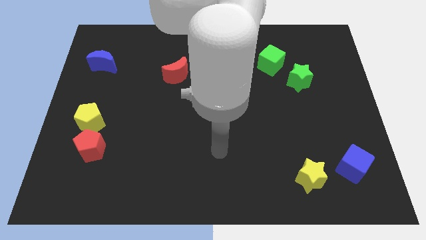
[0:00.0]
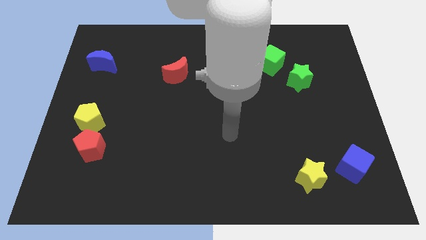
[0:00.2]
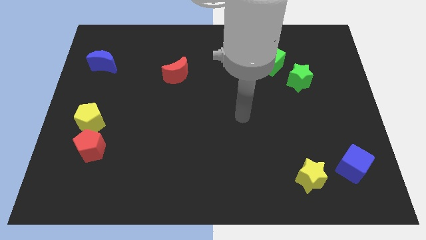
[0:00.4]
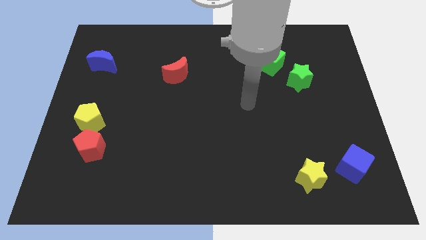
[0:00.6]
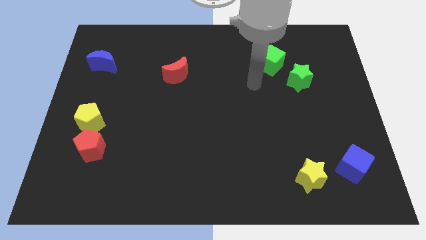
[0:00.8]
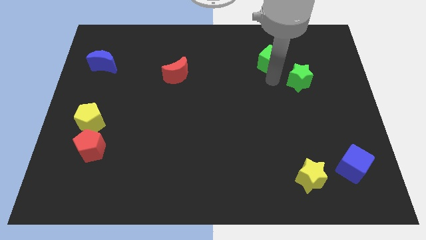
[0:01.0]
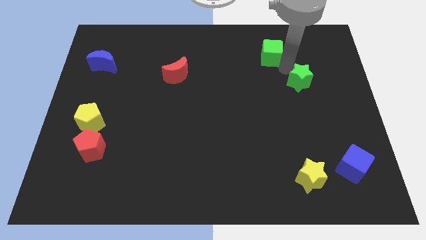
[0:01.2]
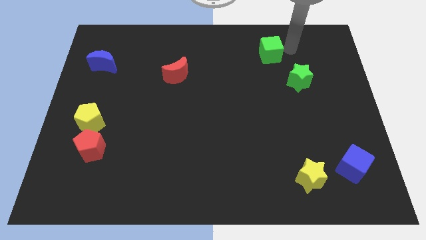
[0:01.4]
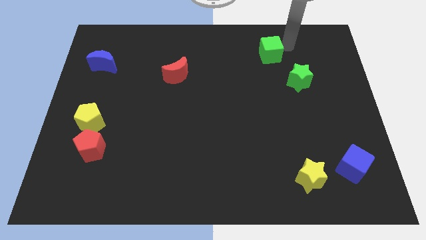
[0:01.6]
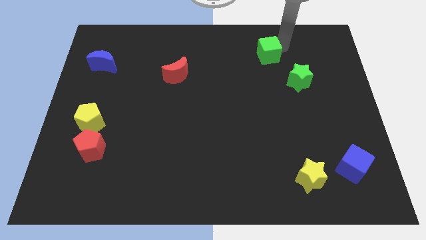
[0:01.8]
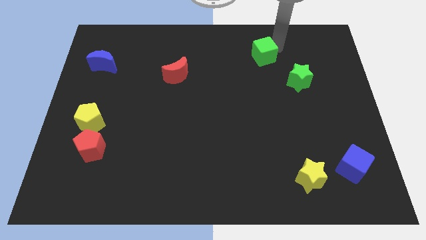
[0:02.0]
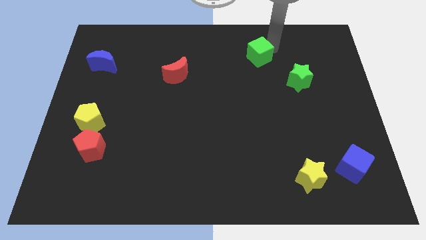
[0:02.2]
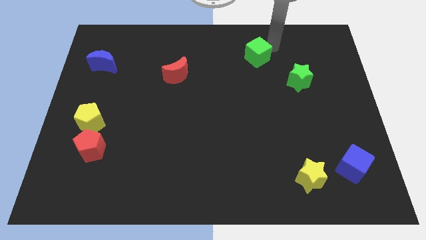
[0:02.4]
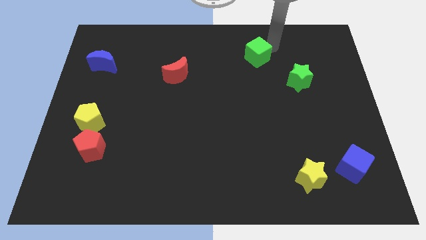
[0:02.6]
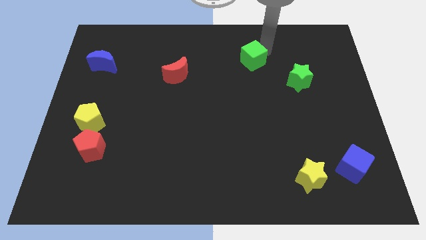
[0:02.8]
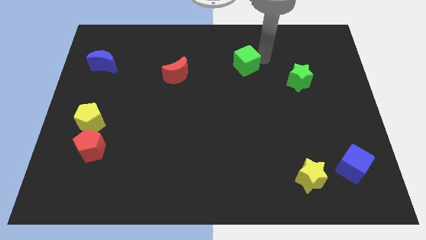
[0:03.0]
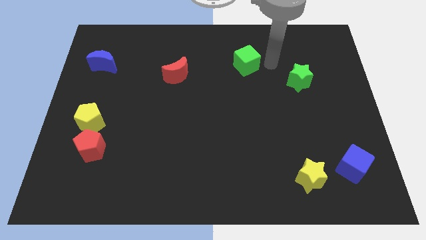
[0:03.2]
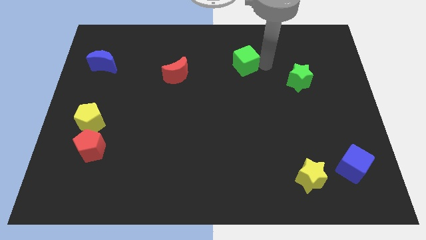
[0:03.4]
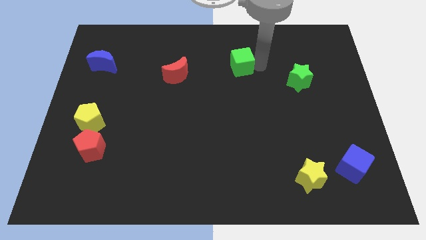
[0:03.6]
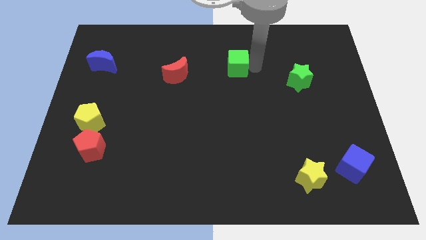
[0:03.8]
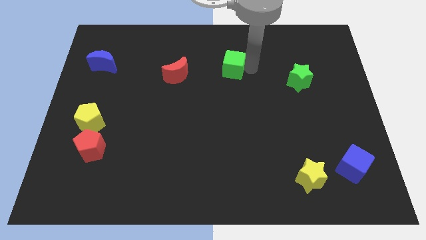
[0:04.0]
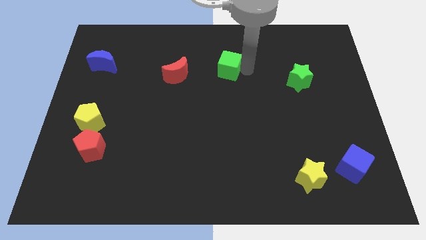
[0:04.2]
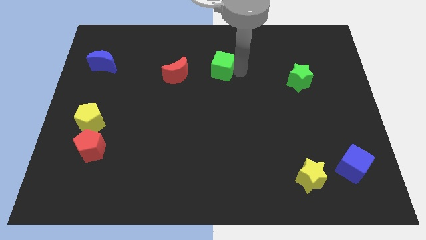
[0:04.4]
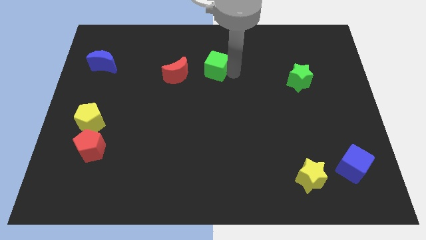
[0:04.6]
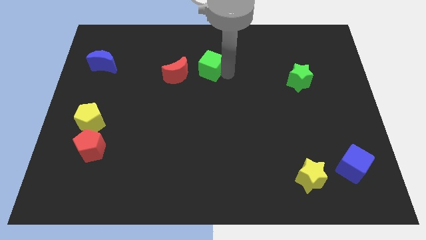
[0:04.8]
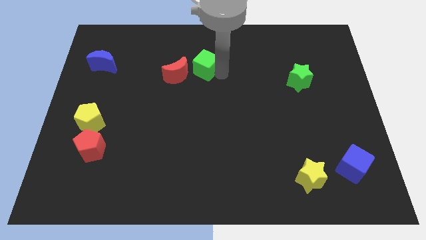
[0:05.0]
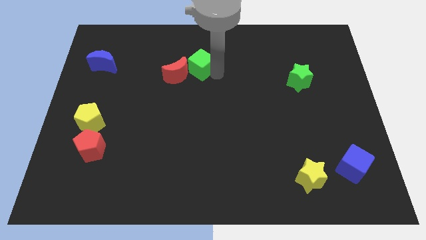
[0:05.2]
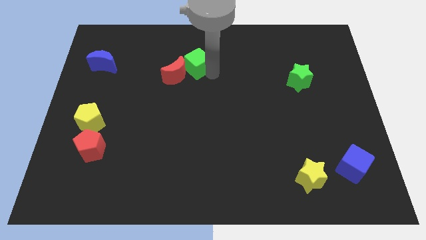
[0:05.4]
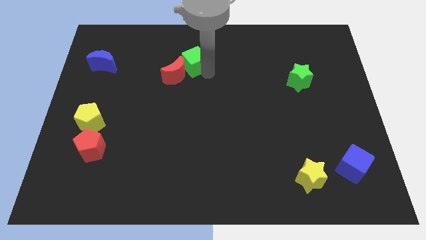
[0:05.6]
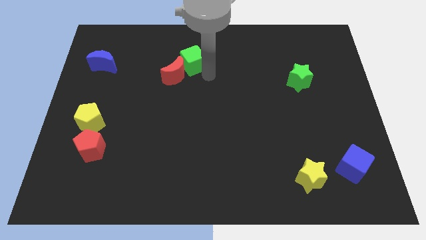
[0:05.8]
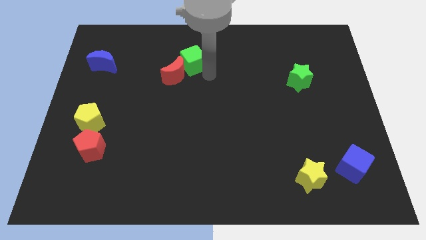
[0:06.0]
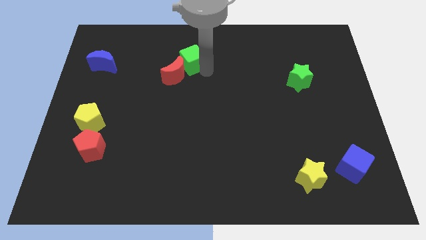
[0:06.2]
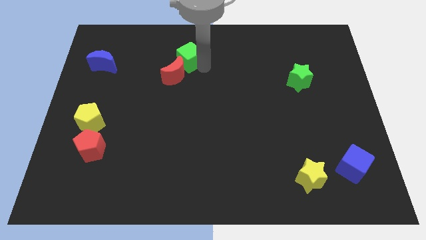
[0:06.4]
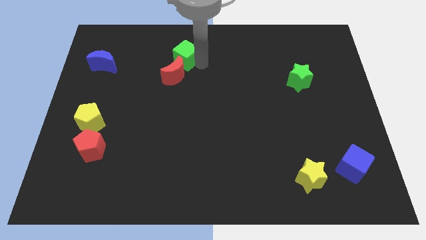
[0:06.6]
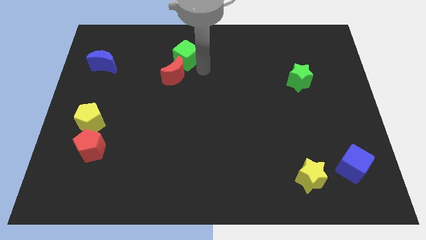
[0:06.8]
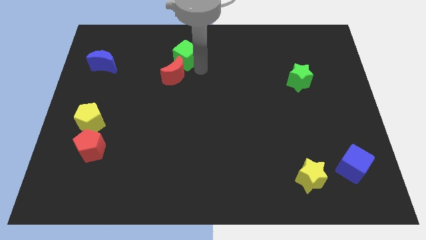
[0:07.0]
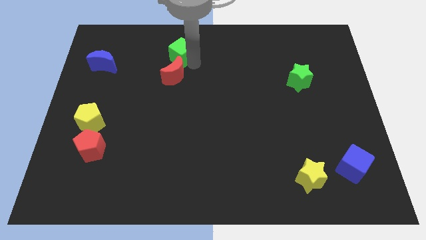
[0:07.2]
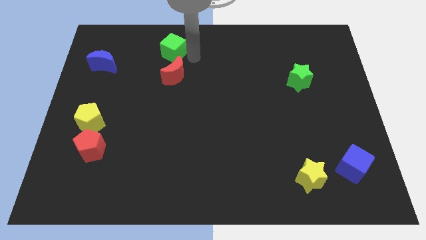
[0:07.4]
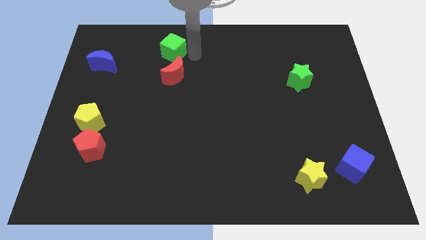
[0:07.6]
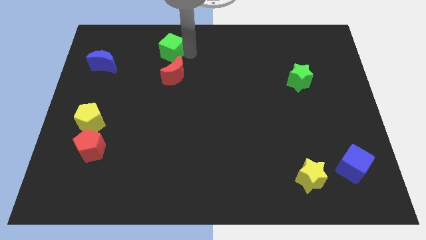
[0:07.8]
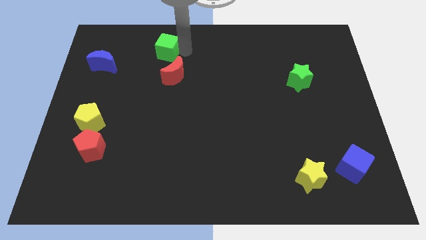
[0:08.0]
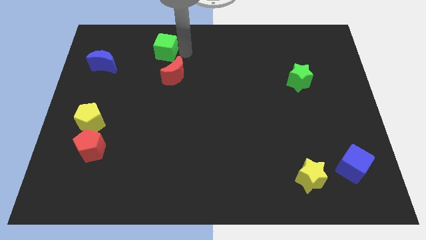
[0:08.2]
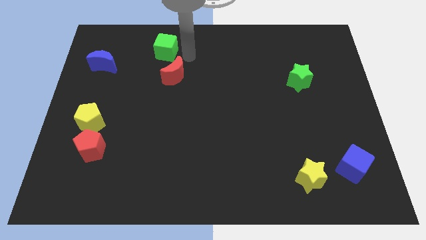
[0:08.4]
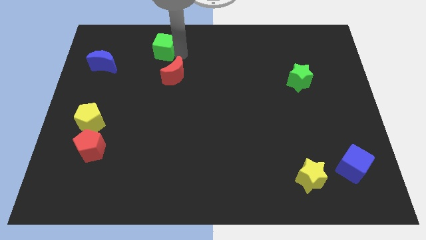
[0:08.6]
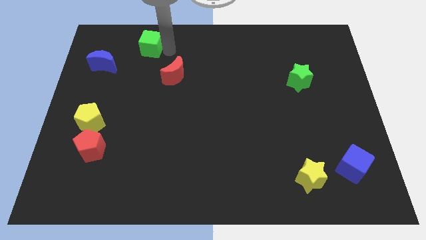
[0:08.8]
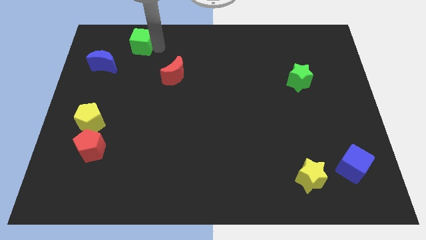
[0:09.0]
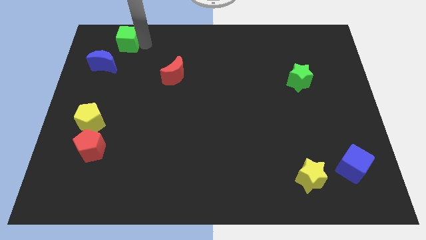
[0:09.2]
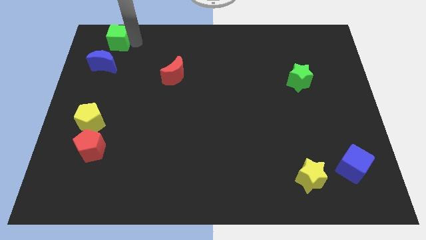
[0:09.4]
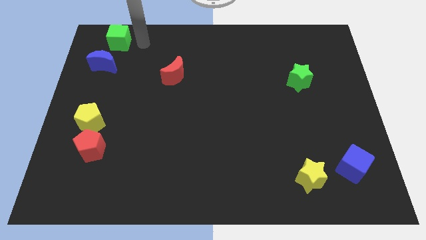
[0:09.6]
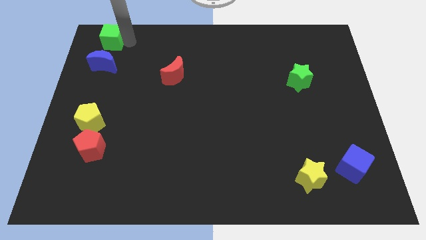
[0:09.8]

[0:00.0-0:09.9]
put the green cube to the top left corner

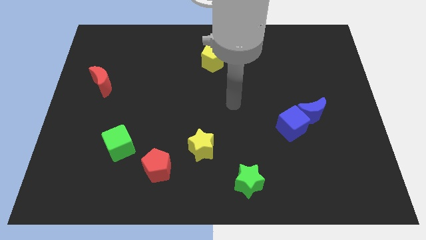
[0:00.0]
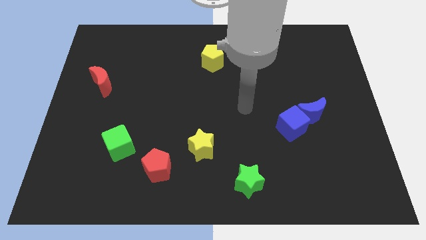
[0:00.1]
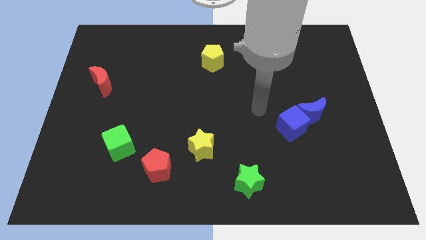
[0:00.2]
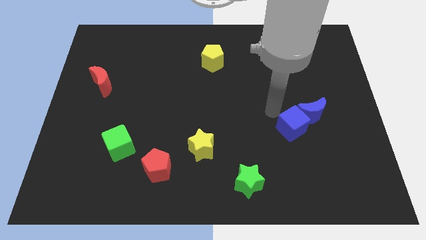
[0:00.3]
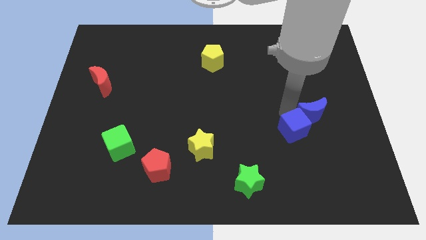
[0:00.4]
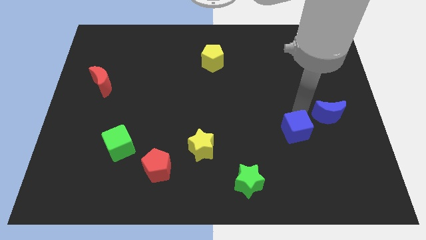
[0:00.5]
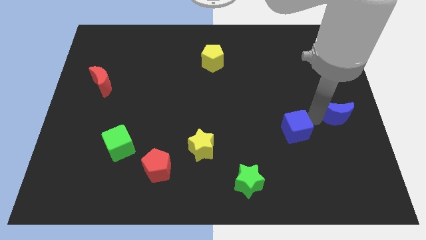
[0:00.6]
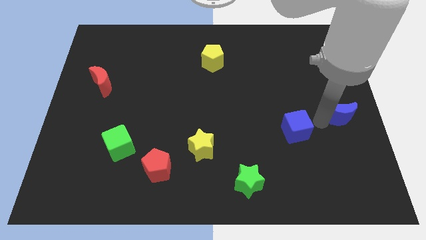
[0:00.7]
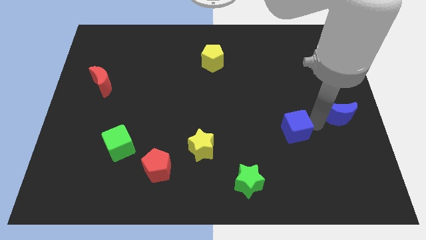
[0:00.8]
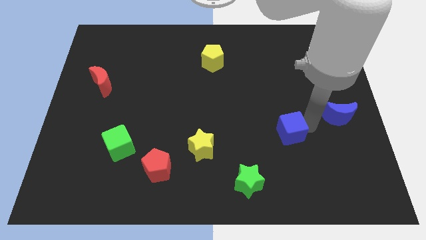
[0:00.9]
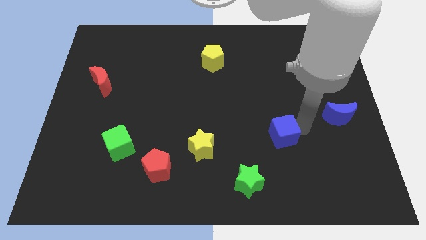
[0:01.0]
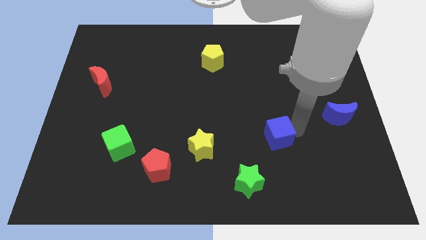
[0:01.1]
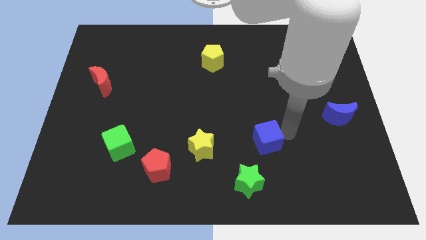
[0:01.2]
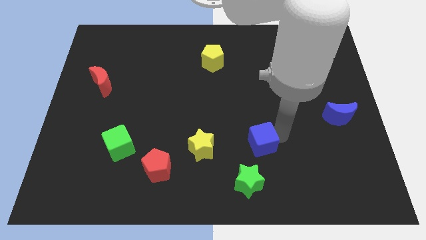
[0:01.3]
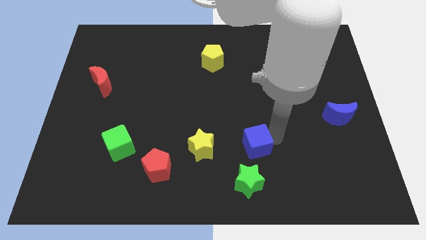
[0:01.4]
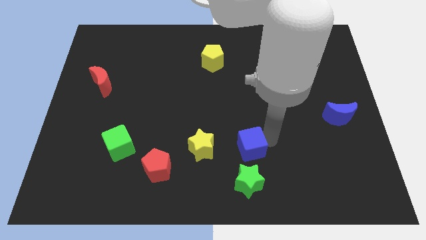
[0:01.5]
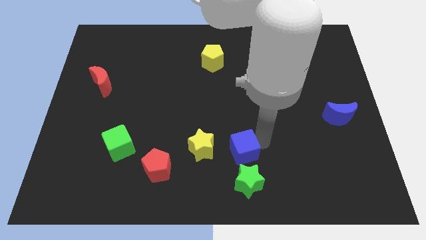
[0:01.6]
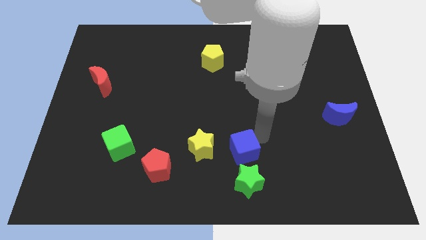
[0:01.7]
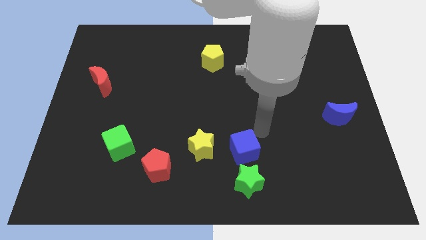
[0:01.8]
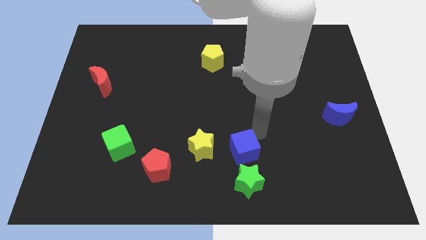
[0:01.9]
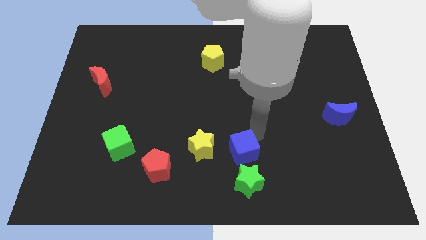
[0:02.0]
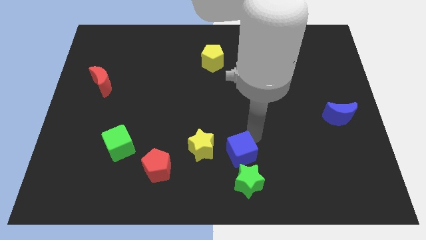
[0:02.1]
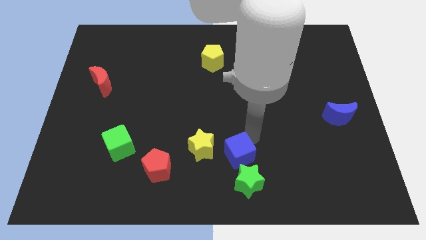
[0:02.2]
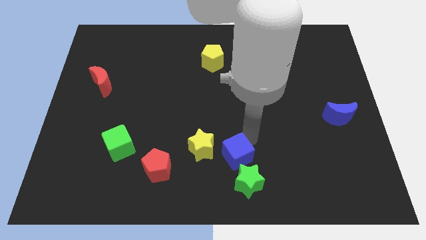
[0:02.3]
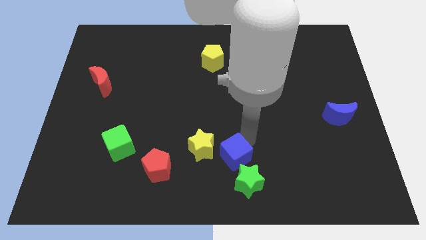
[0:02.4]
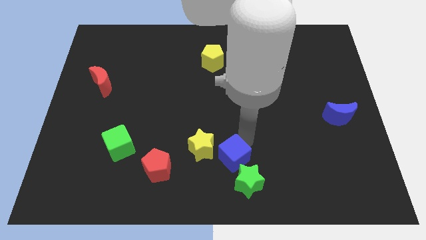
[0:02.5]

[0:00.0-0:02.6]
push the blue cube to the bottom side
